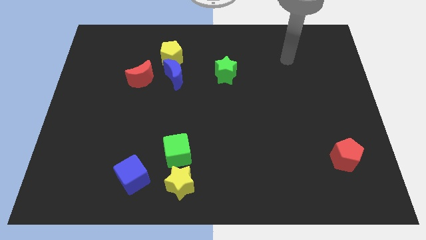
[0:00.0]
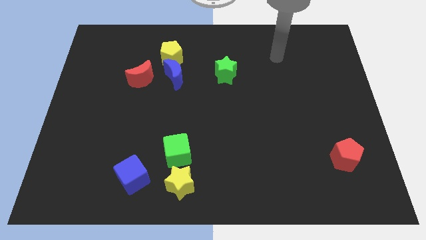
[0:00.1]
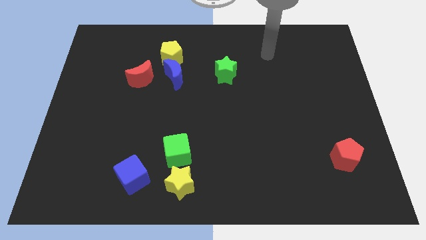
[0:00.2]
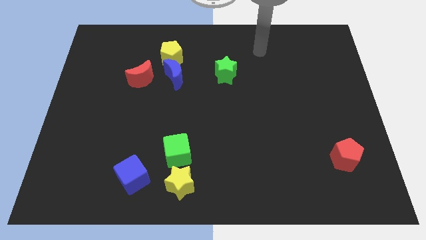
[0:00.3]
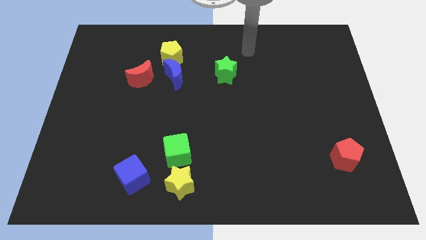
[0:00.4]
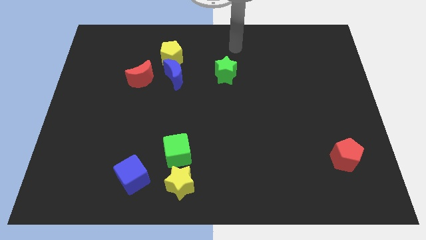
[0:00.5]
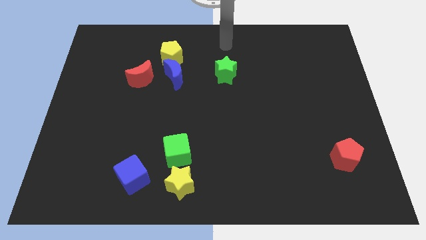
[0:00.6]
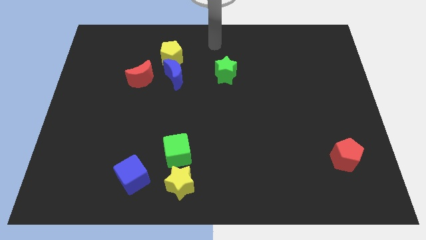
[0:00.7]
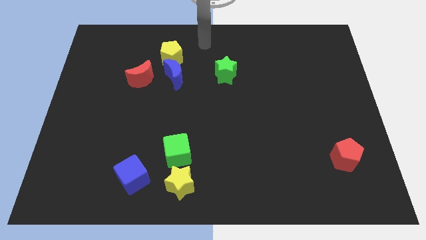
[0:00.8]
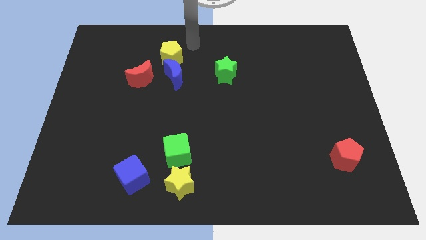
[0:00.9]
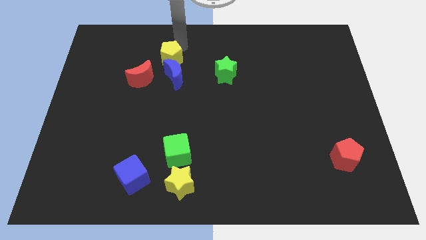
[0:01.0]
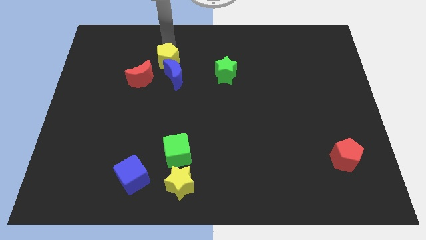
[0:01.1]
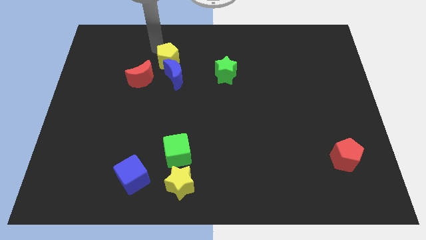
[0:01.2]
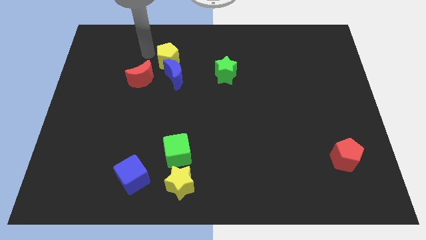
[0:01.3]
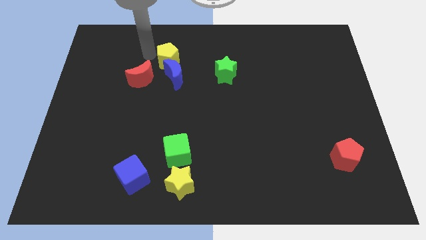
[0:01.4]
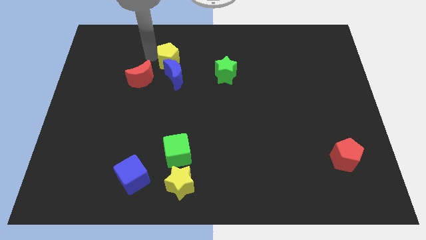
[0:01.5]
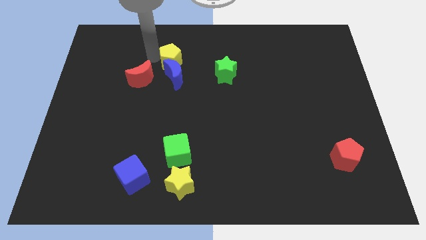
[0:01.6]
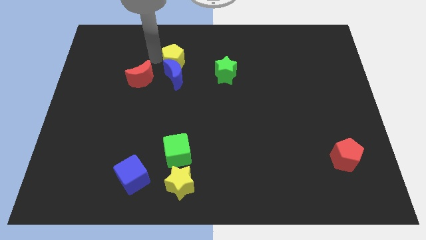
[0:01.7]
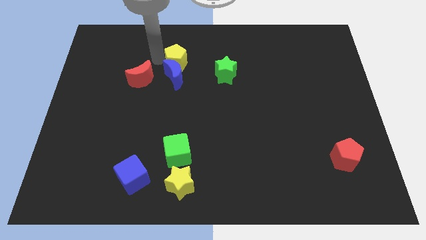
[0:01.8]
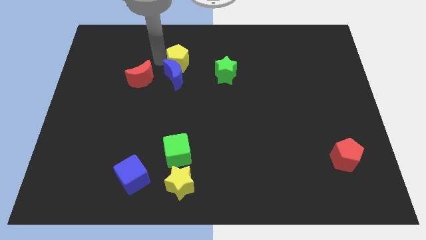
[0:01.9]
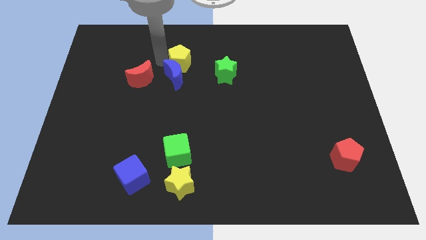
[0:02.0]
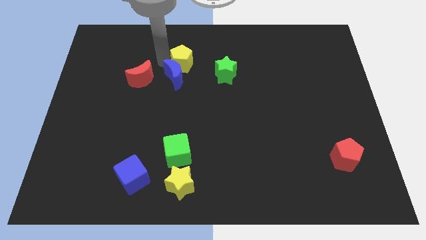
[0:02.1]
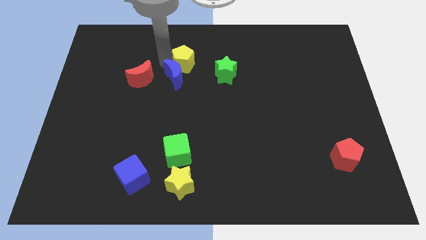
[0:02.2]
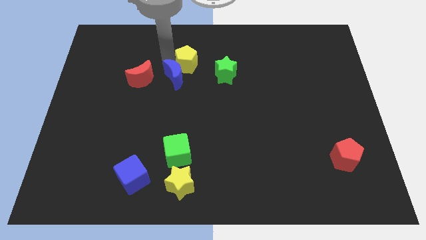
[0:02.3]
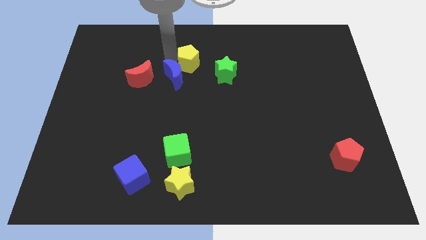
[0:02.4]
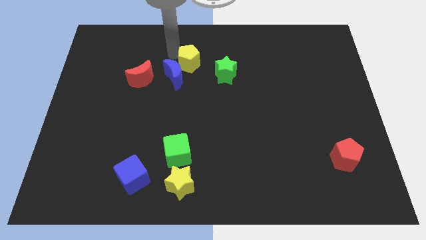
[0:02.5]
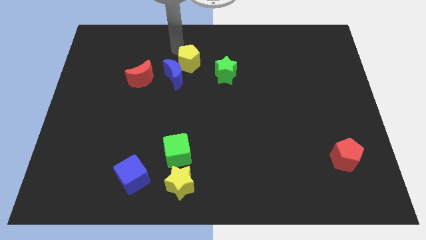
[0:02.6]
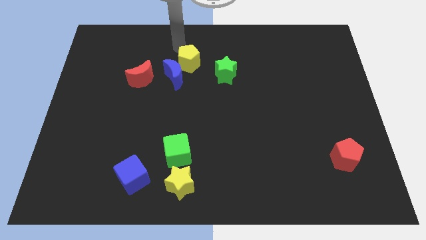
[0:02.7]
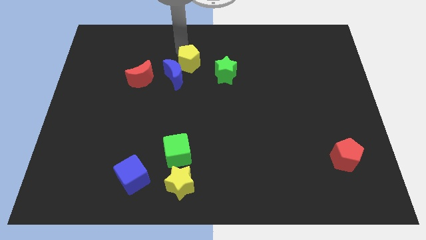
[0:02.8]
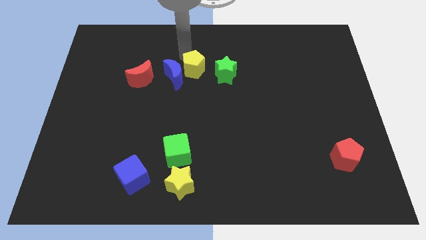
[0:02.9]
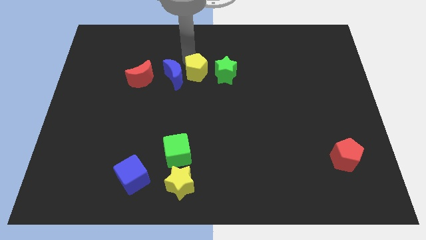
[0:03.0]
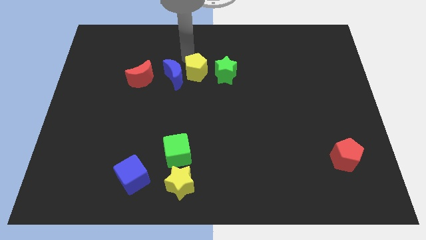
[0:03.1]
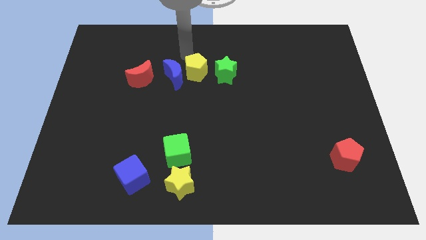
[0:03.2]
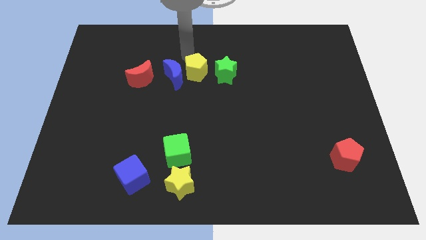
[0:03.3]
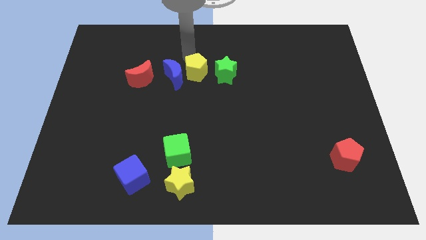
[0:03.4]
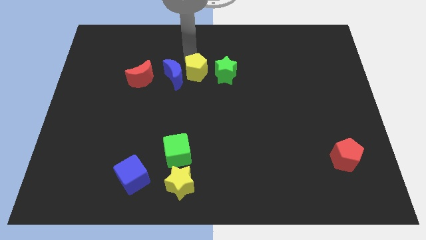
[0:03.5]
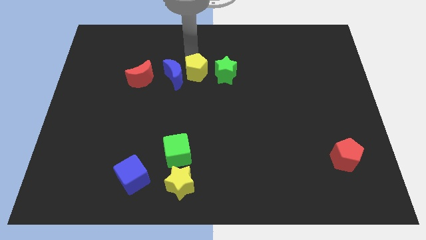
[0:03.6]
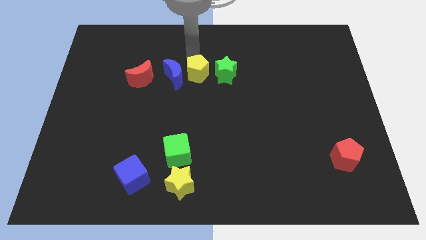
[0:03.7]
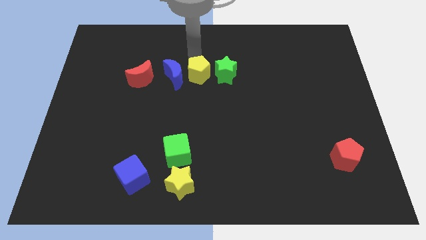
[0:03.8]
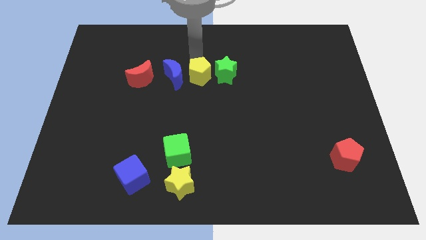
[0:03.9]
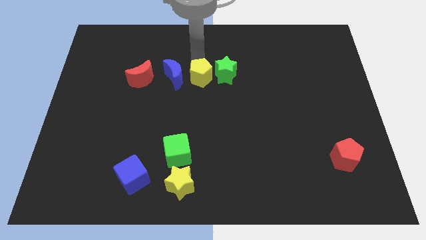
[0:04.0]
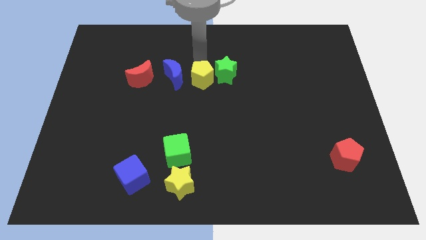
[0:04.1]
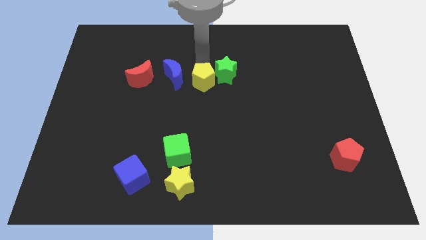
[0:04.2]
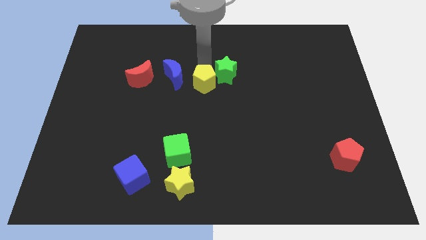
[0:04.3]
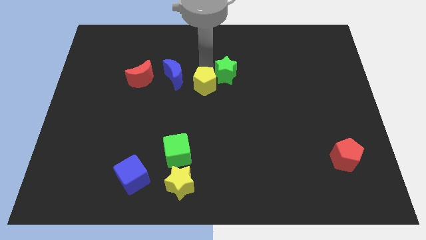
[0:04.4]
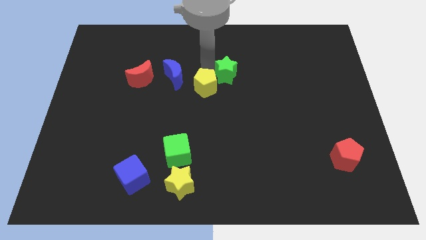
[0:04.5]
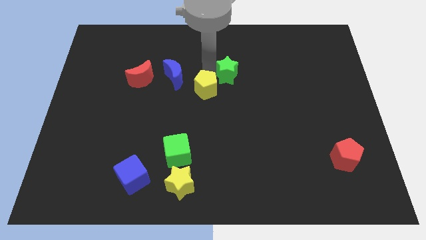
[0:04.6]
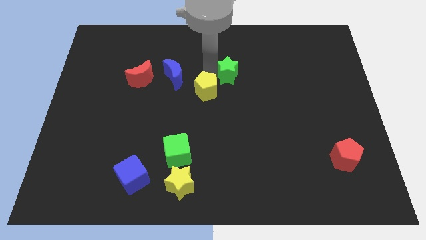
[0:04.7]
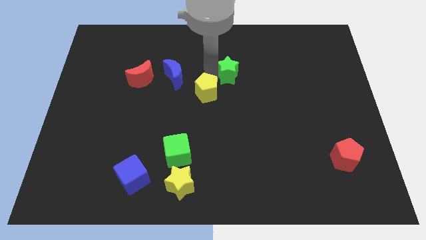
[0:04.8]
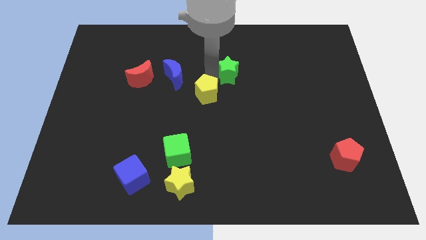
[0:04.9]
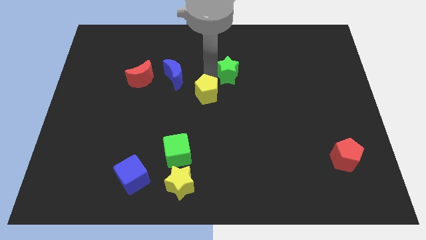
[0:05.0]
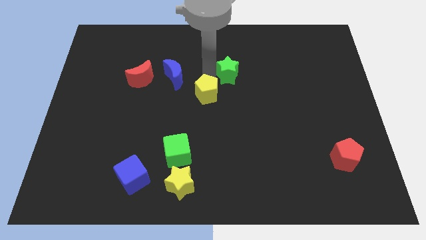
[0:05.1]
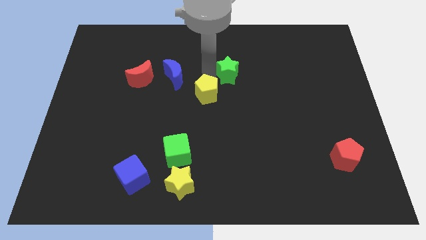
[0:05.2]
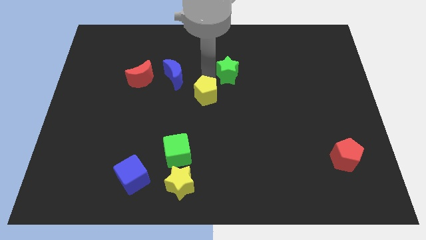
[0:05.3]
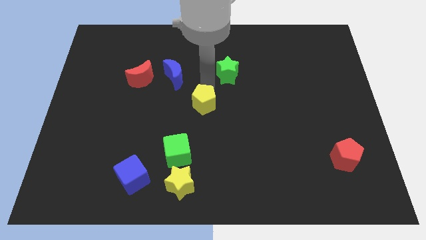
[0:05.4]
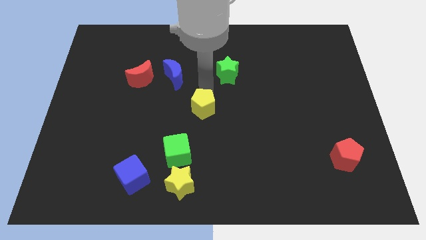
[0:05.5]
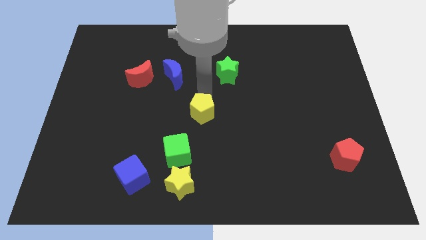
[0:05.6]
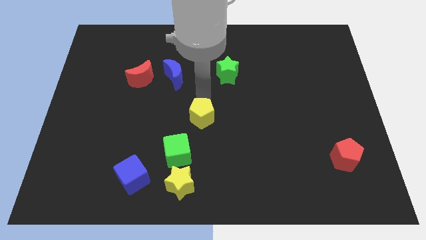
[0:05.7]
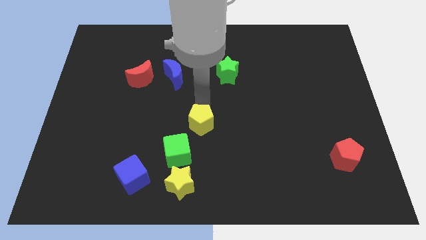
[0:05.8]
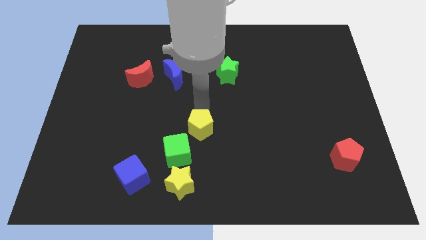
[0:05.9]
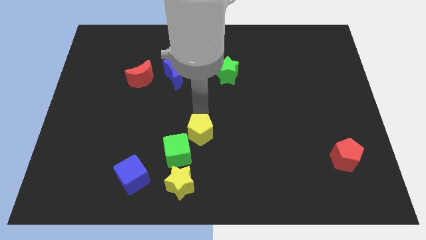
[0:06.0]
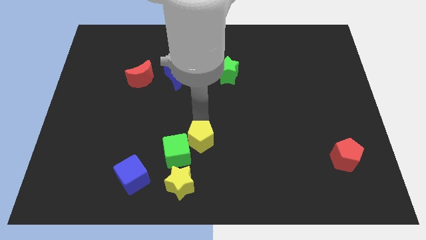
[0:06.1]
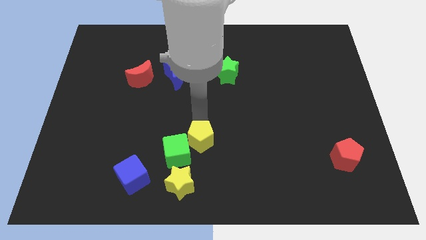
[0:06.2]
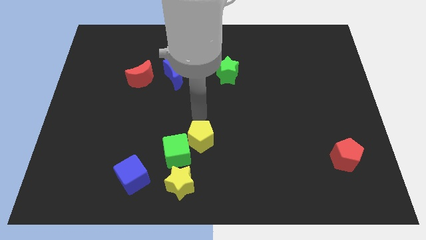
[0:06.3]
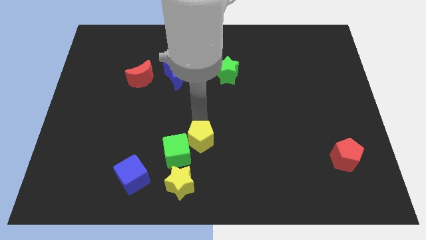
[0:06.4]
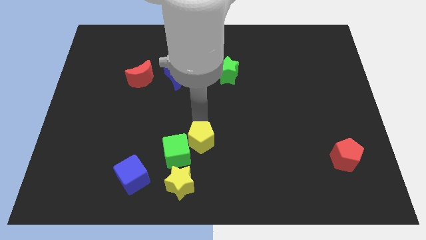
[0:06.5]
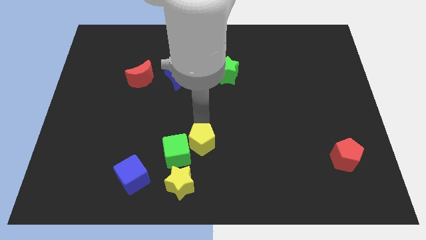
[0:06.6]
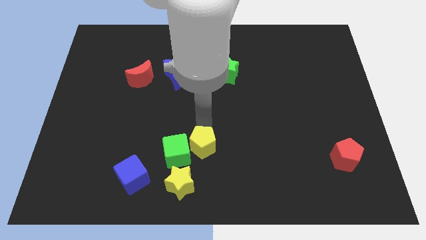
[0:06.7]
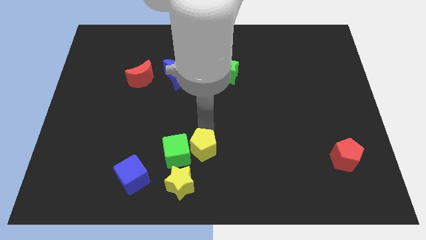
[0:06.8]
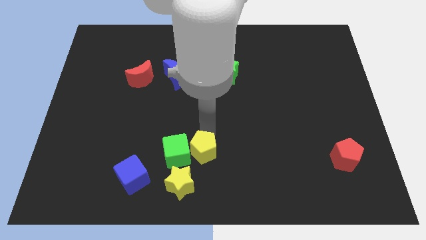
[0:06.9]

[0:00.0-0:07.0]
put the yellow pentagon to the bottom right of the green cube
